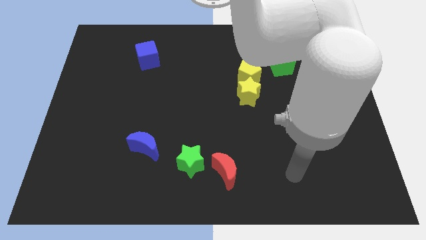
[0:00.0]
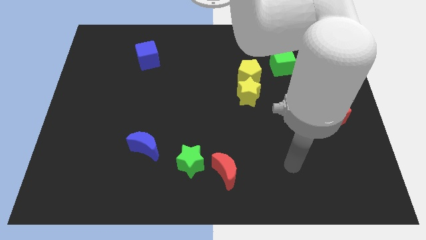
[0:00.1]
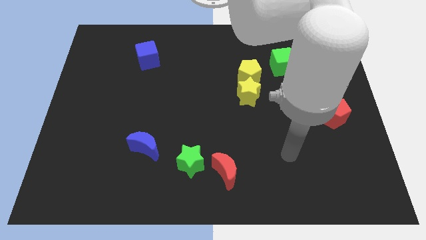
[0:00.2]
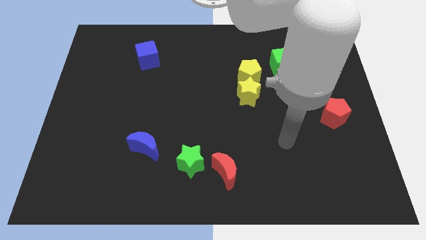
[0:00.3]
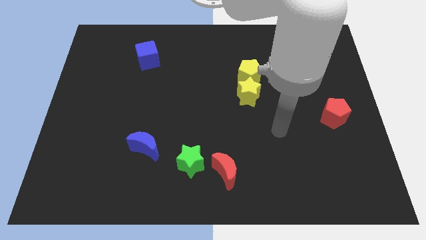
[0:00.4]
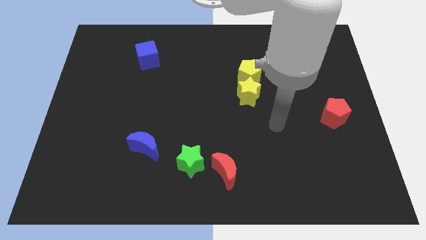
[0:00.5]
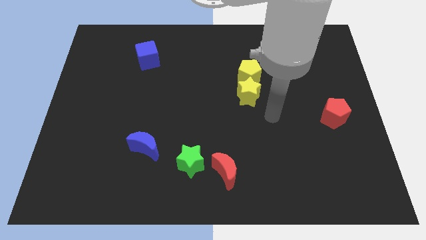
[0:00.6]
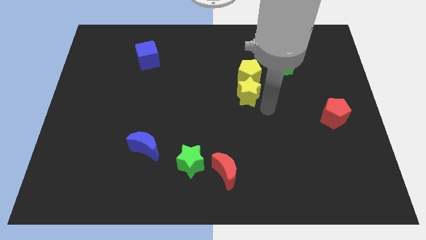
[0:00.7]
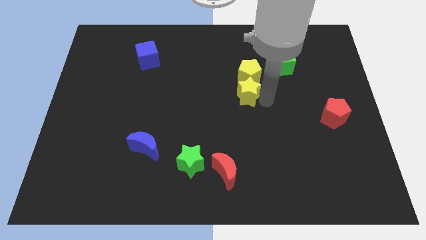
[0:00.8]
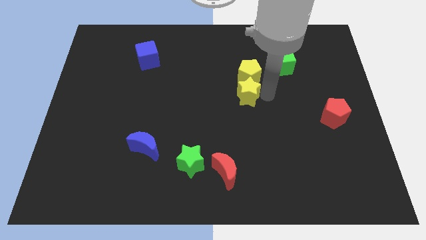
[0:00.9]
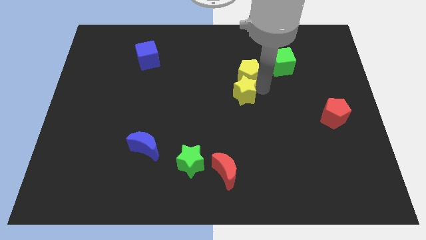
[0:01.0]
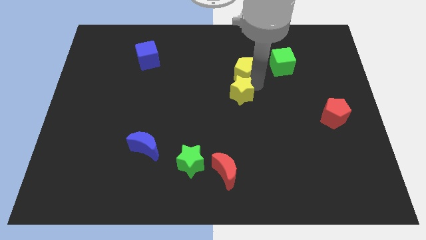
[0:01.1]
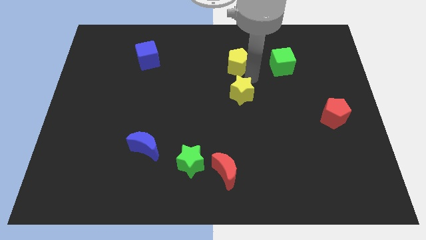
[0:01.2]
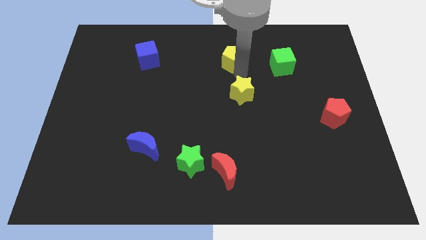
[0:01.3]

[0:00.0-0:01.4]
separate the yellow star from the yellow pentagon

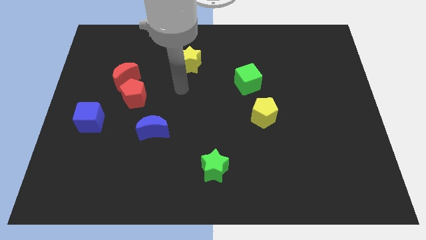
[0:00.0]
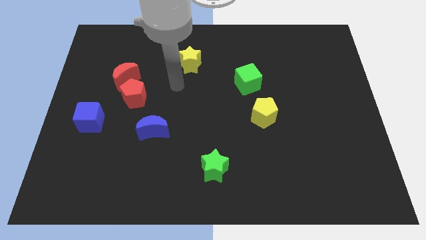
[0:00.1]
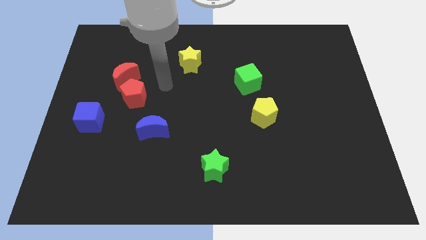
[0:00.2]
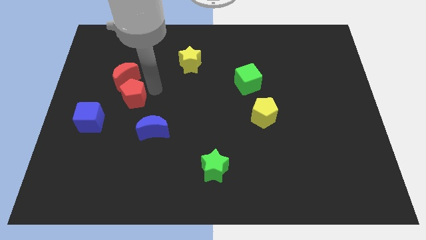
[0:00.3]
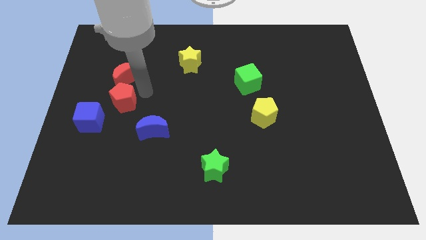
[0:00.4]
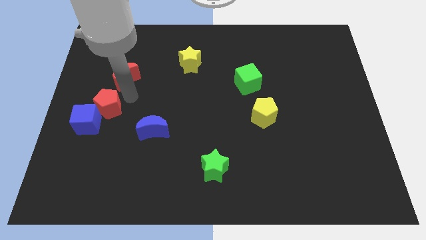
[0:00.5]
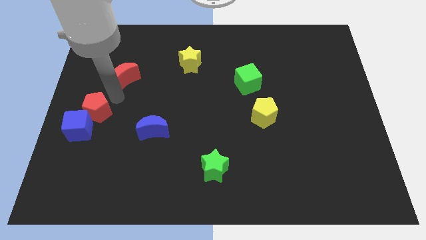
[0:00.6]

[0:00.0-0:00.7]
move the red moon away from the red pentagon

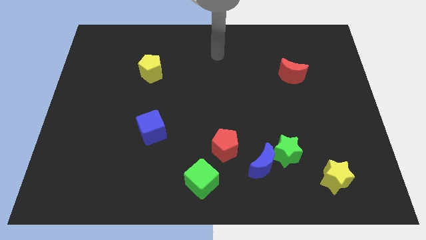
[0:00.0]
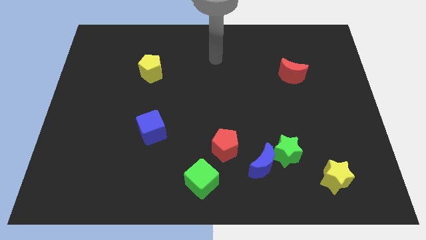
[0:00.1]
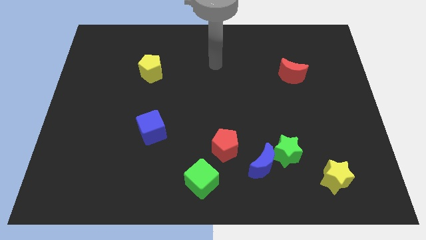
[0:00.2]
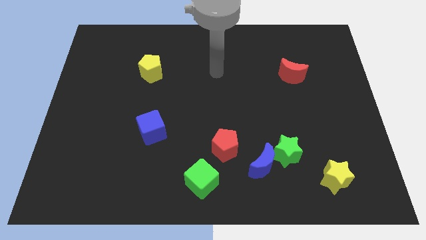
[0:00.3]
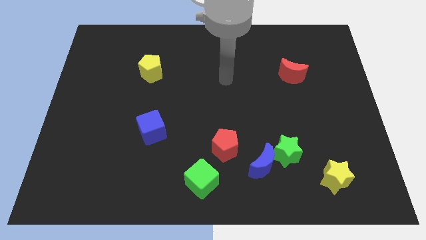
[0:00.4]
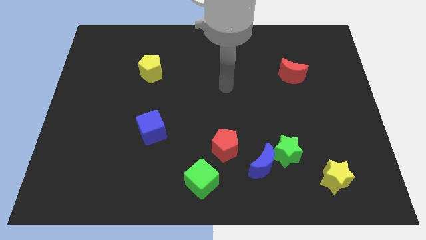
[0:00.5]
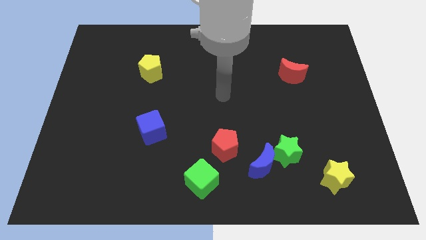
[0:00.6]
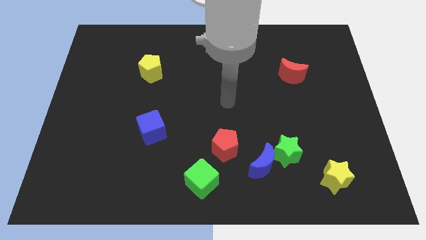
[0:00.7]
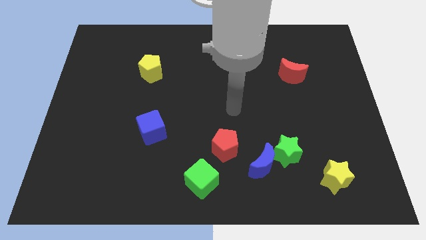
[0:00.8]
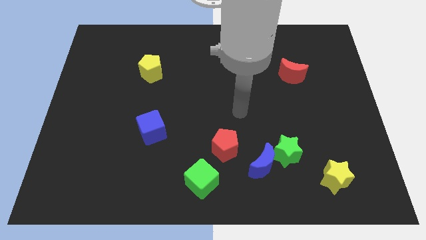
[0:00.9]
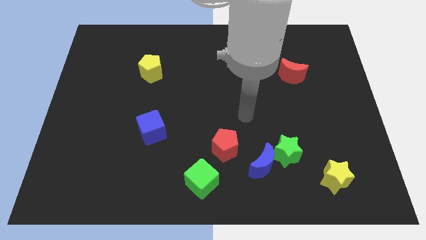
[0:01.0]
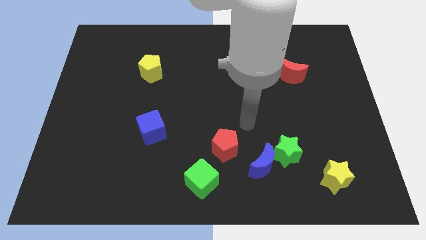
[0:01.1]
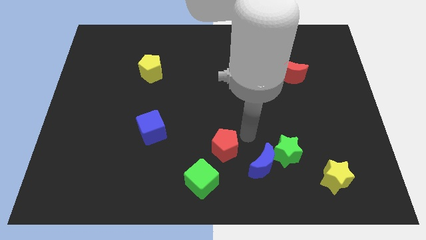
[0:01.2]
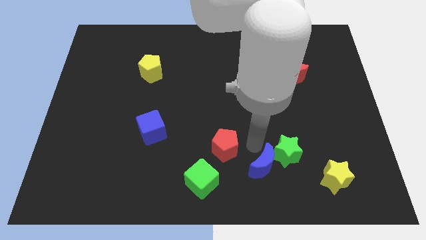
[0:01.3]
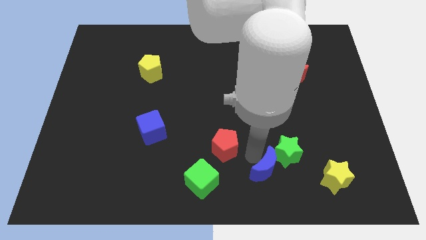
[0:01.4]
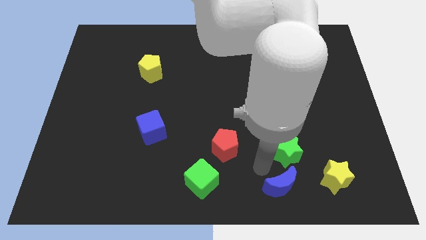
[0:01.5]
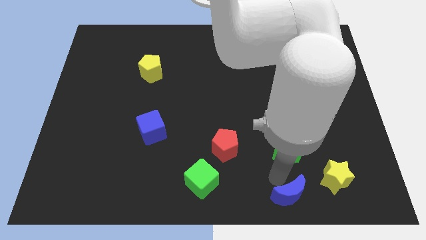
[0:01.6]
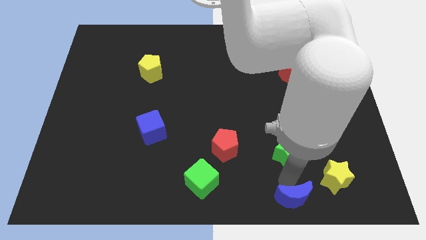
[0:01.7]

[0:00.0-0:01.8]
pull the green star apart from the blue moon

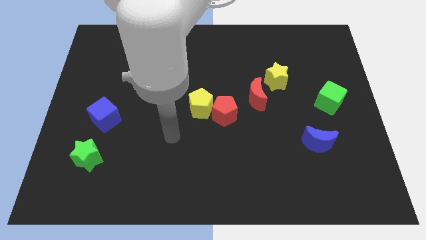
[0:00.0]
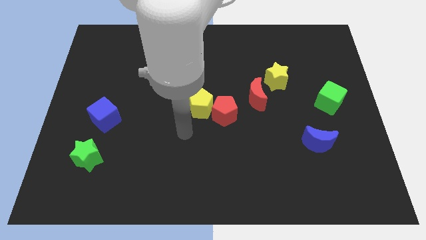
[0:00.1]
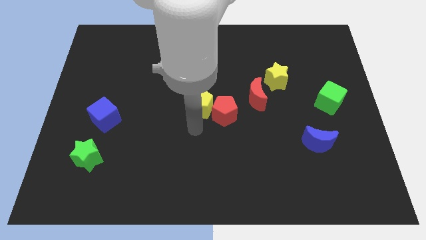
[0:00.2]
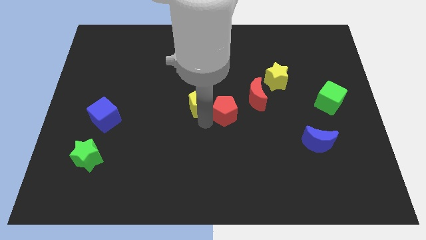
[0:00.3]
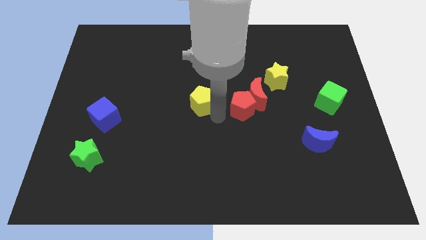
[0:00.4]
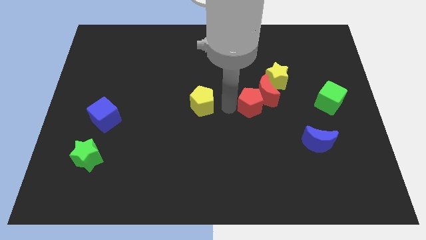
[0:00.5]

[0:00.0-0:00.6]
move the yellow pentagon away from the red pentagon

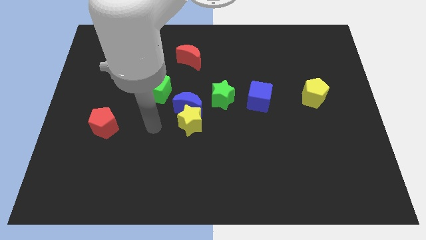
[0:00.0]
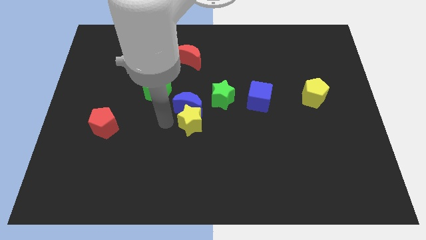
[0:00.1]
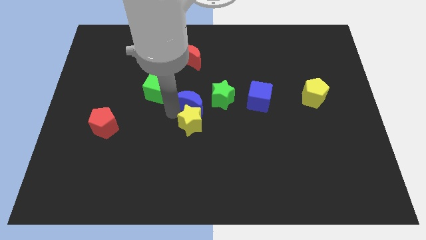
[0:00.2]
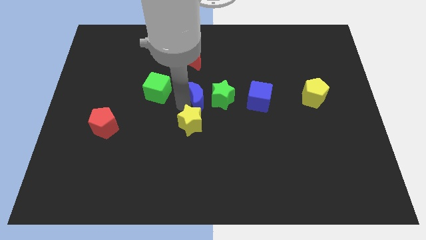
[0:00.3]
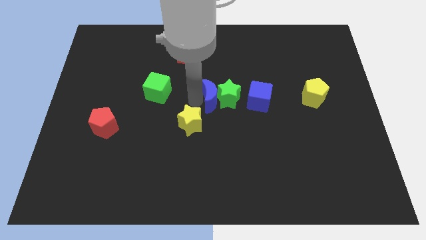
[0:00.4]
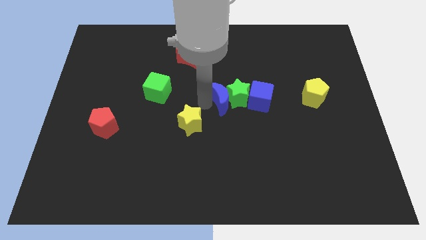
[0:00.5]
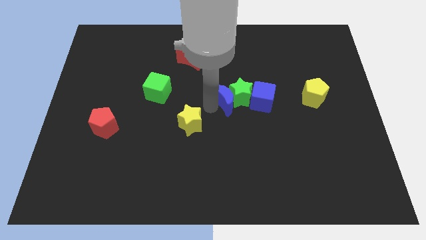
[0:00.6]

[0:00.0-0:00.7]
separate the yellow star from the blue moon

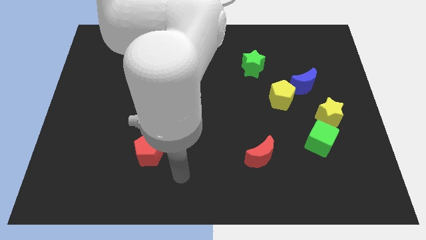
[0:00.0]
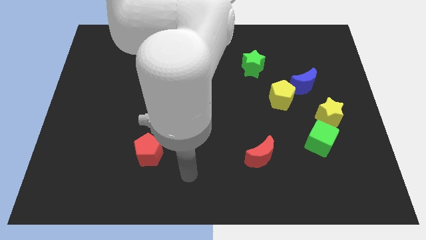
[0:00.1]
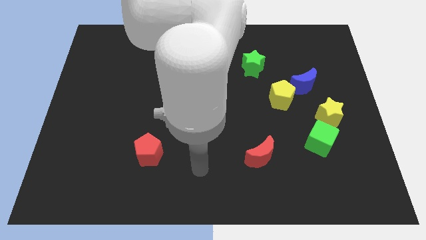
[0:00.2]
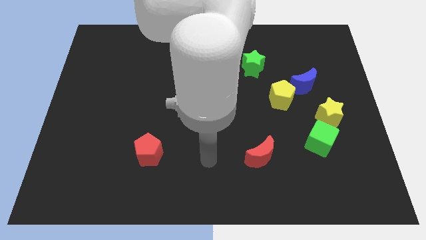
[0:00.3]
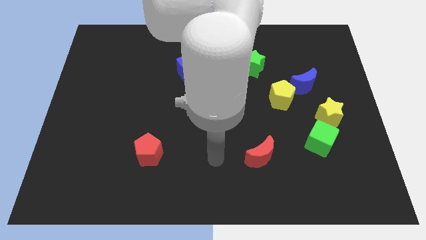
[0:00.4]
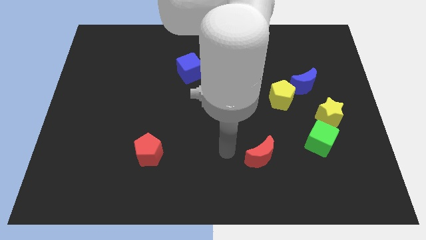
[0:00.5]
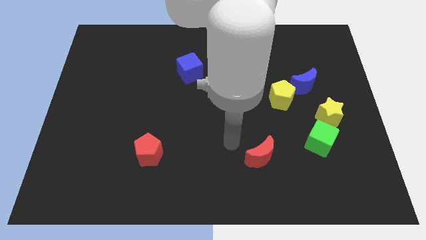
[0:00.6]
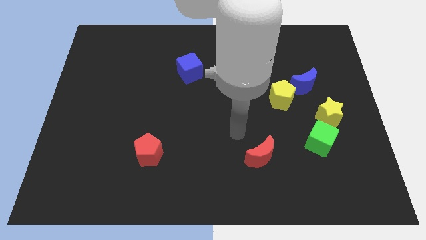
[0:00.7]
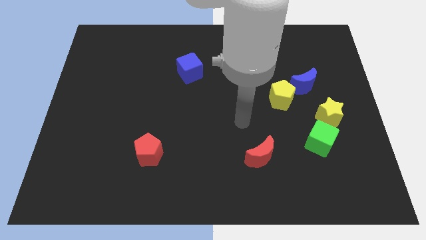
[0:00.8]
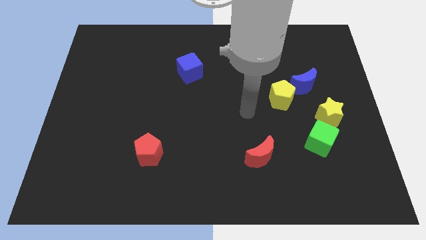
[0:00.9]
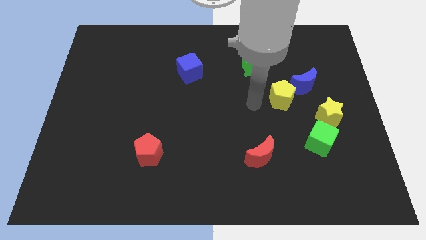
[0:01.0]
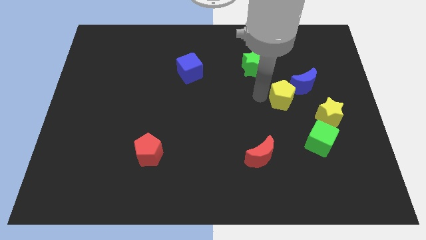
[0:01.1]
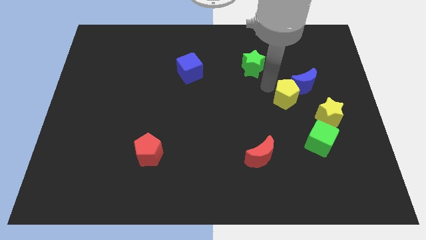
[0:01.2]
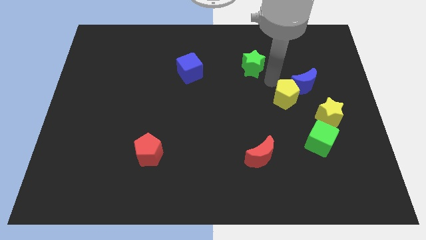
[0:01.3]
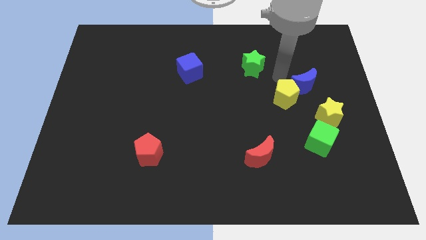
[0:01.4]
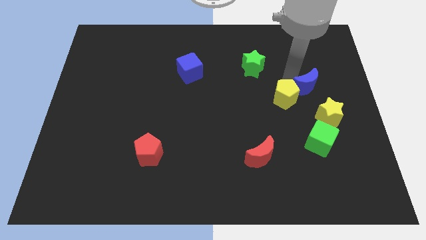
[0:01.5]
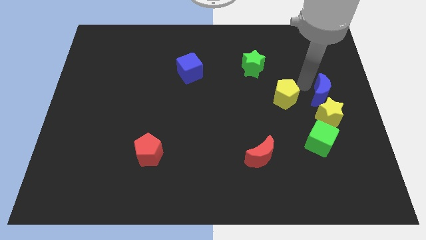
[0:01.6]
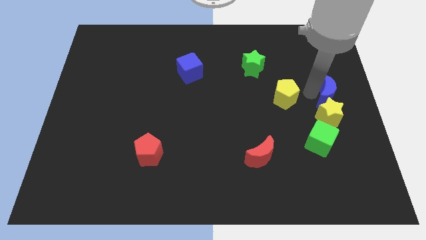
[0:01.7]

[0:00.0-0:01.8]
pull the yellow pentagon apart from the blue moon

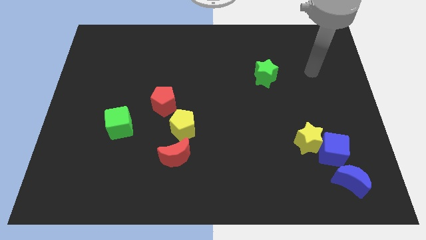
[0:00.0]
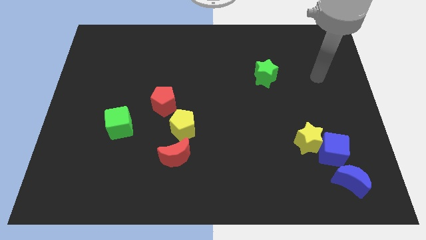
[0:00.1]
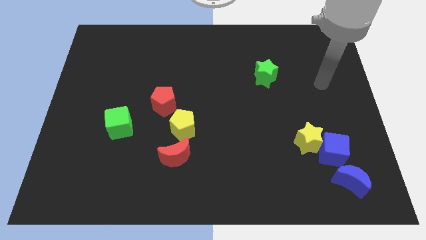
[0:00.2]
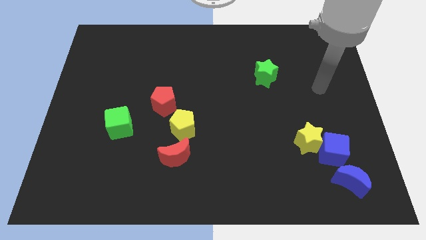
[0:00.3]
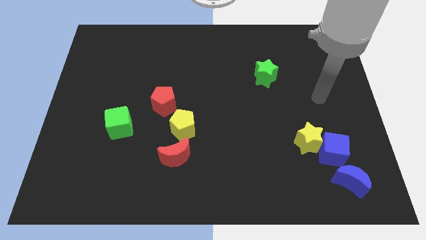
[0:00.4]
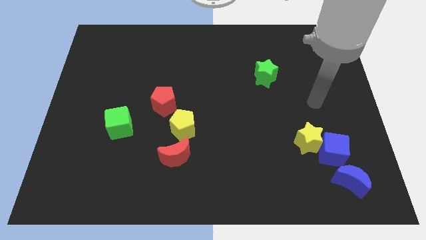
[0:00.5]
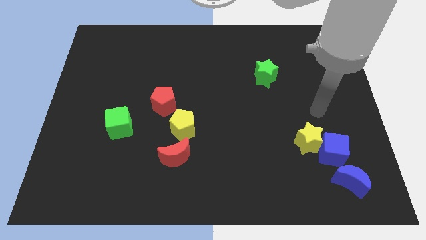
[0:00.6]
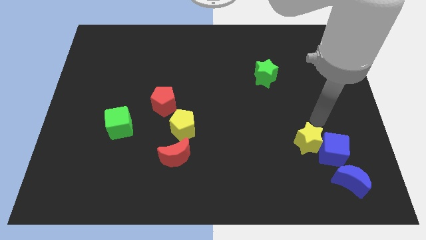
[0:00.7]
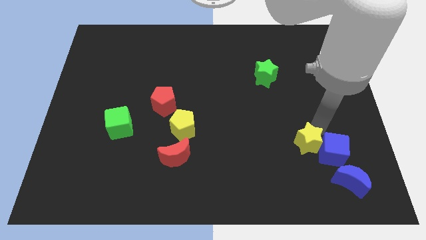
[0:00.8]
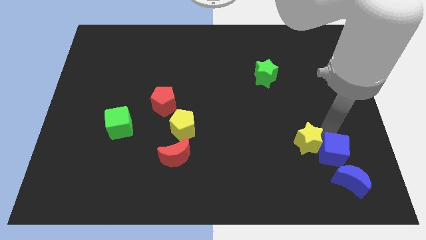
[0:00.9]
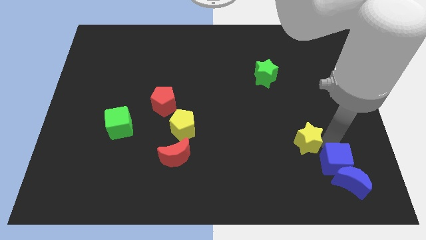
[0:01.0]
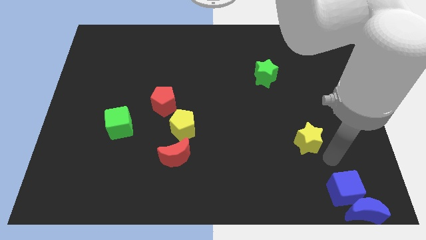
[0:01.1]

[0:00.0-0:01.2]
move the yellow star away from the blue cube

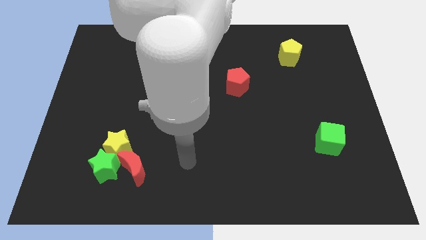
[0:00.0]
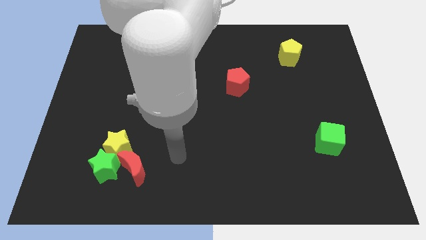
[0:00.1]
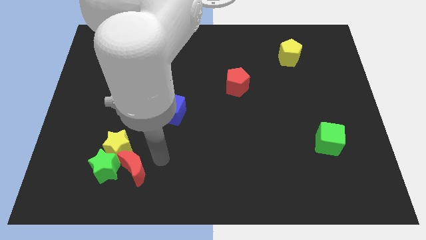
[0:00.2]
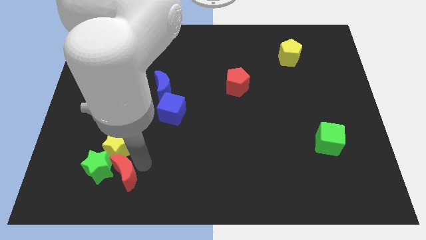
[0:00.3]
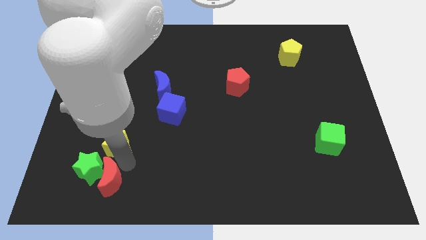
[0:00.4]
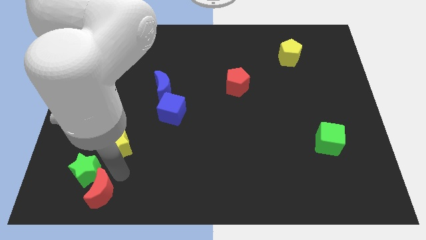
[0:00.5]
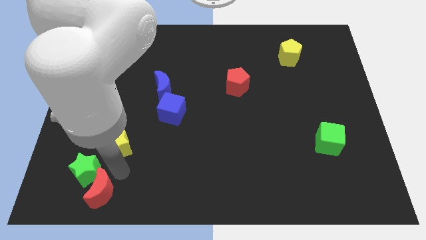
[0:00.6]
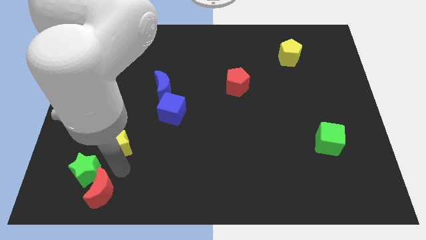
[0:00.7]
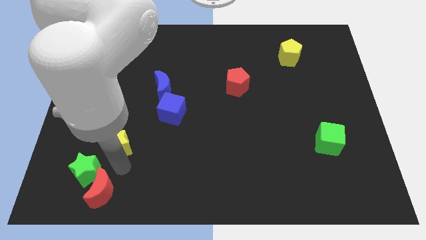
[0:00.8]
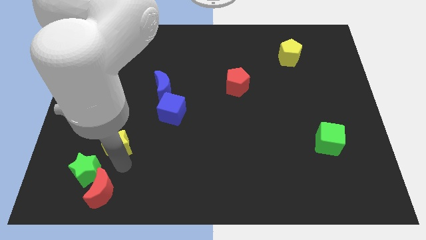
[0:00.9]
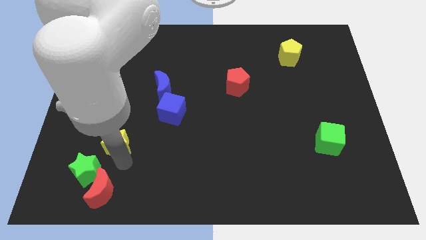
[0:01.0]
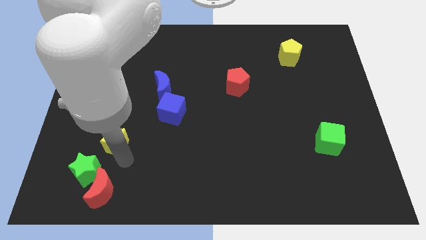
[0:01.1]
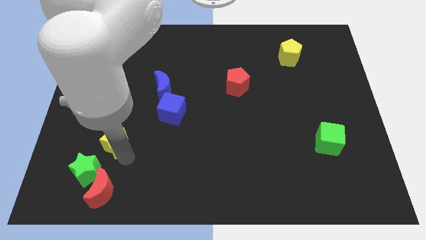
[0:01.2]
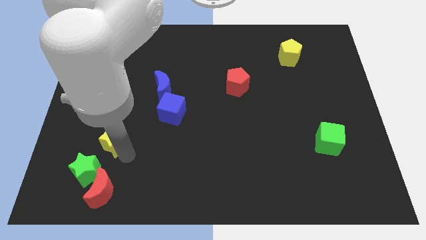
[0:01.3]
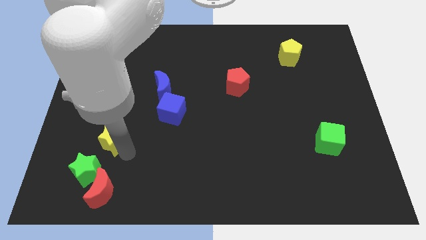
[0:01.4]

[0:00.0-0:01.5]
move the yellow star away from the green star and red moon
